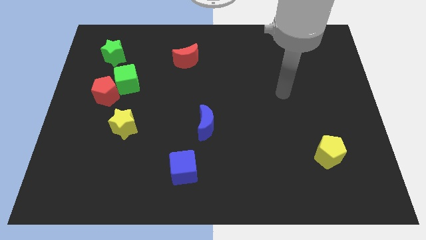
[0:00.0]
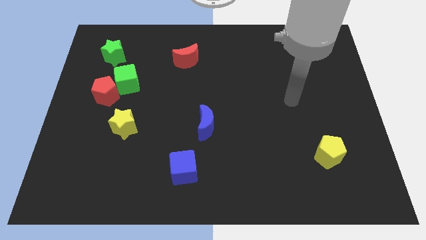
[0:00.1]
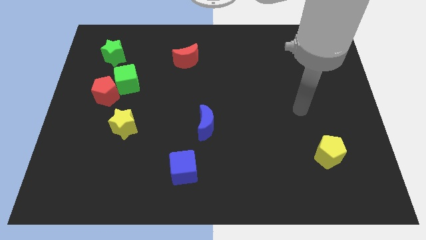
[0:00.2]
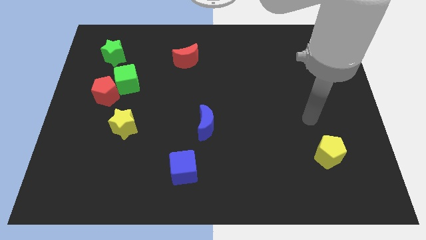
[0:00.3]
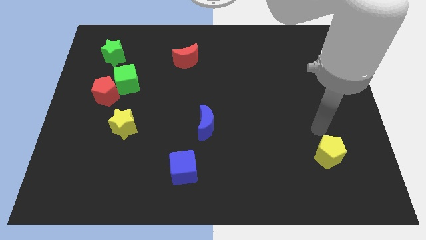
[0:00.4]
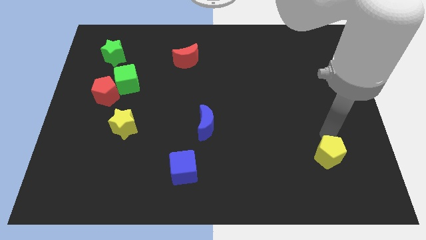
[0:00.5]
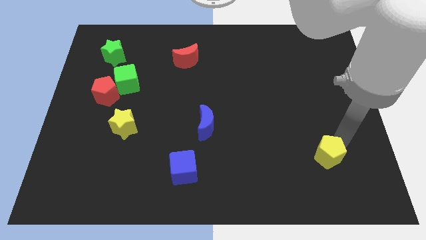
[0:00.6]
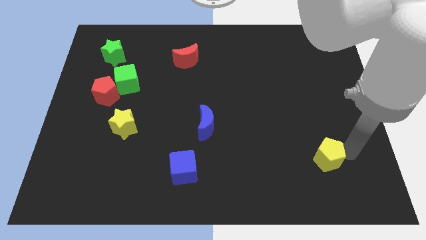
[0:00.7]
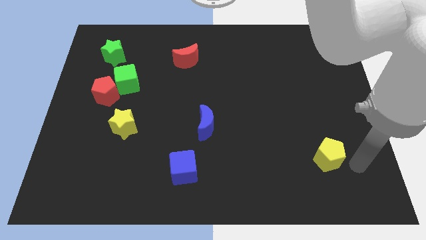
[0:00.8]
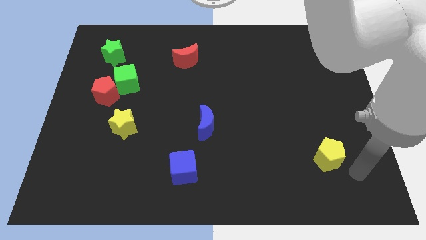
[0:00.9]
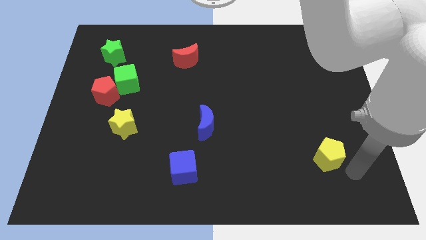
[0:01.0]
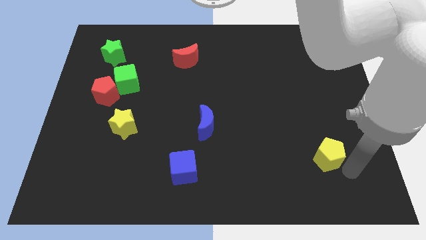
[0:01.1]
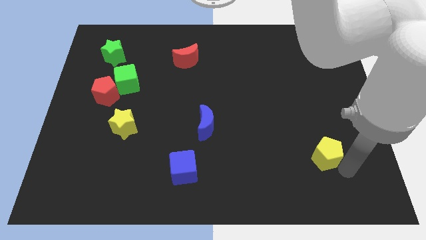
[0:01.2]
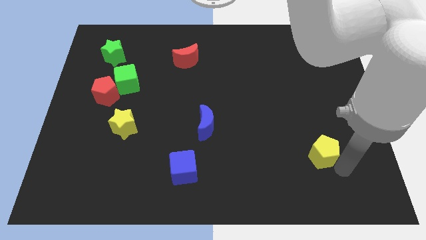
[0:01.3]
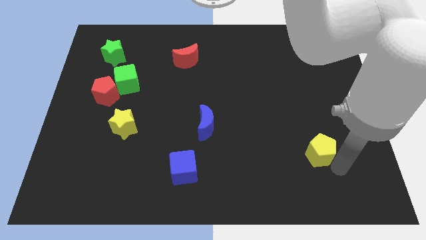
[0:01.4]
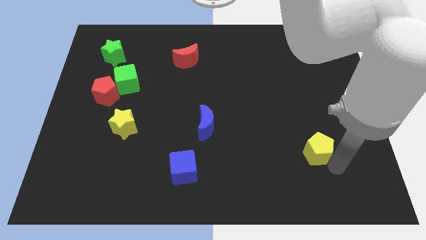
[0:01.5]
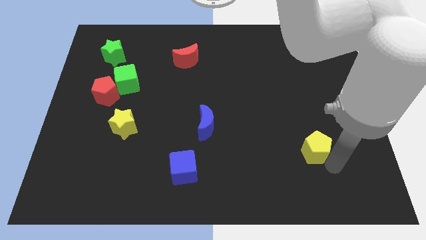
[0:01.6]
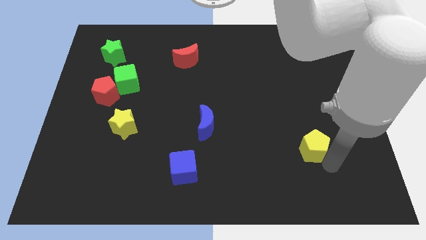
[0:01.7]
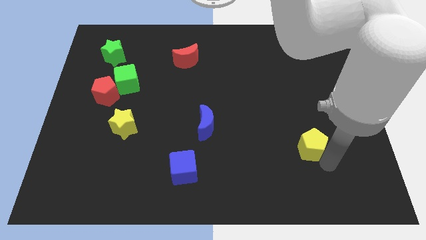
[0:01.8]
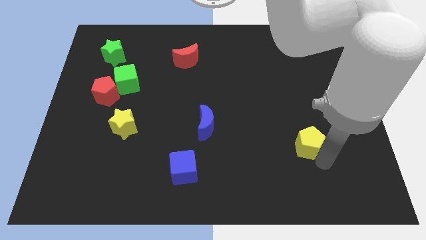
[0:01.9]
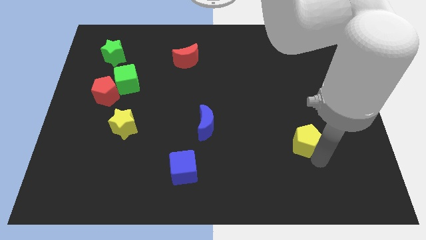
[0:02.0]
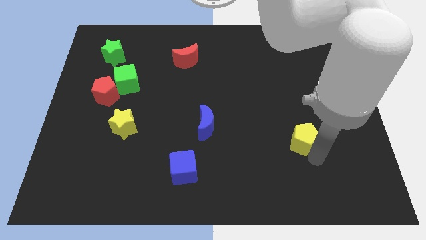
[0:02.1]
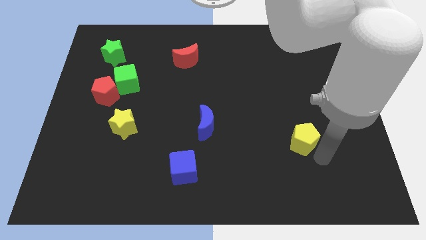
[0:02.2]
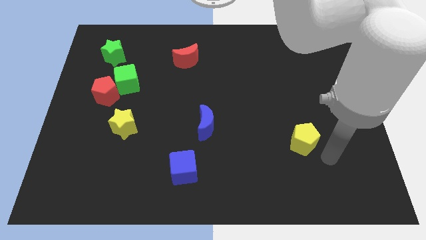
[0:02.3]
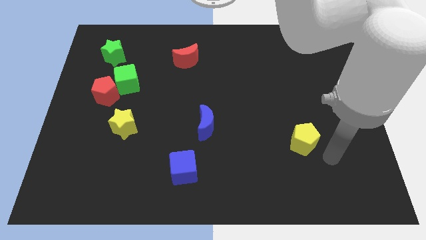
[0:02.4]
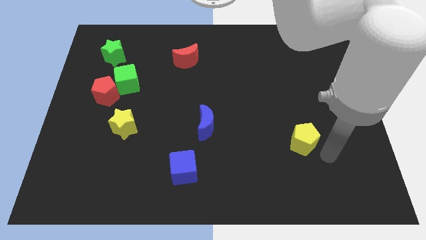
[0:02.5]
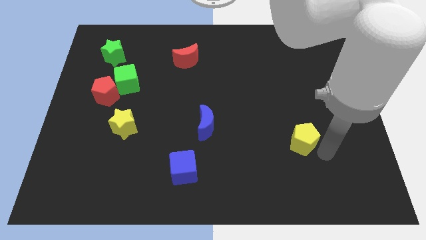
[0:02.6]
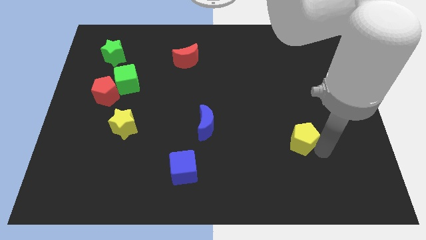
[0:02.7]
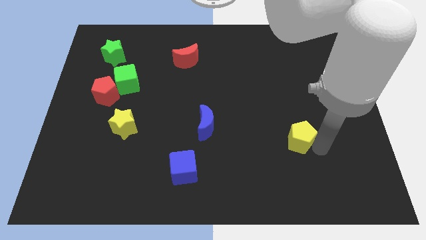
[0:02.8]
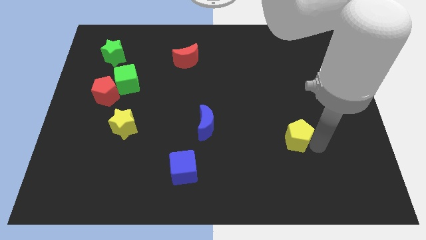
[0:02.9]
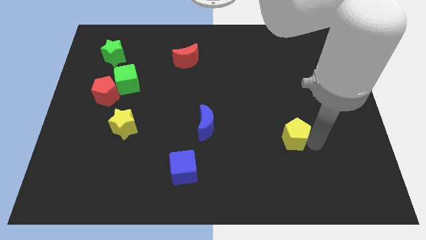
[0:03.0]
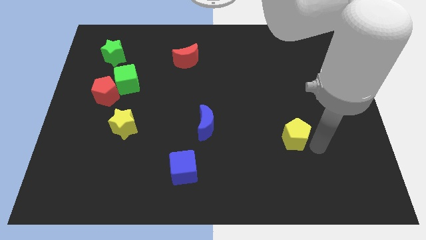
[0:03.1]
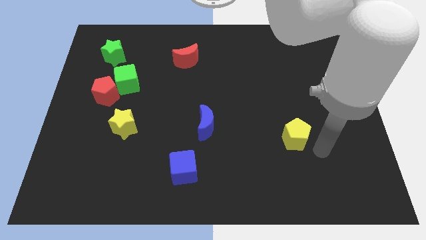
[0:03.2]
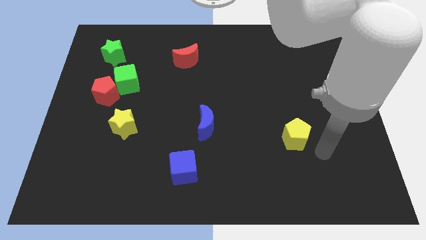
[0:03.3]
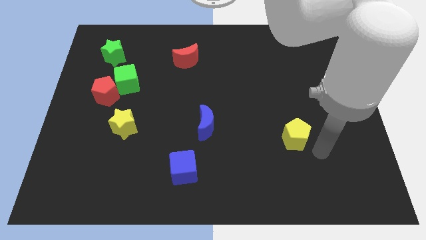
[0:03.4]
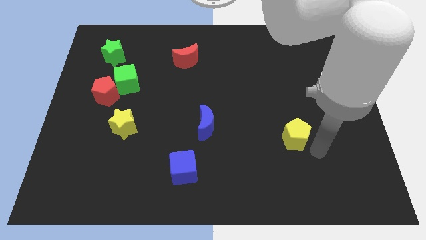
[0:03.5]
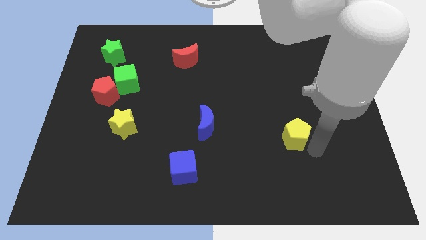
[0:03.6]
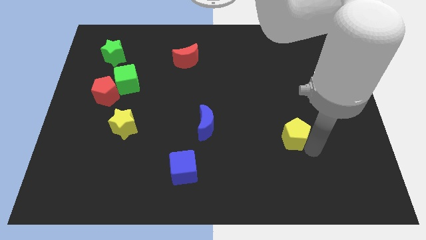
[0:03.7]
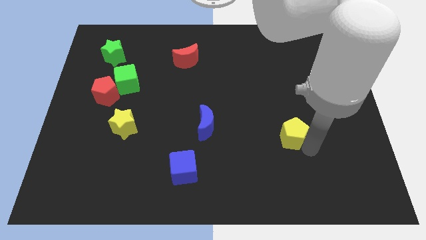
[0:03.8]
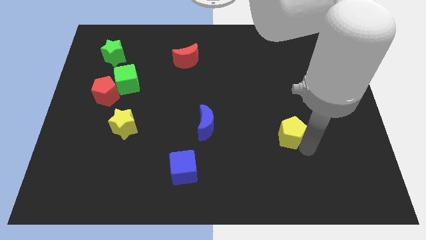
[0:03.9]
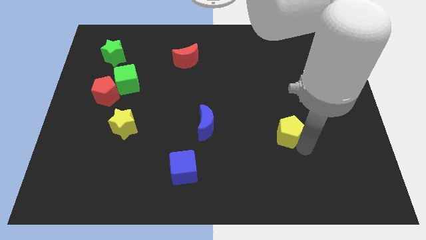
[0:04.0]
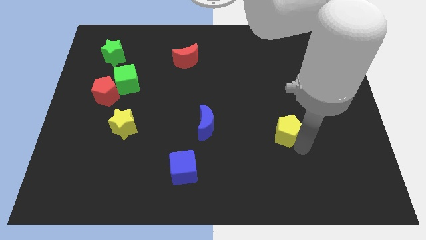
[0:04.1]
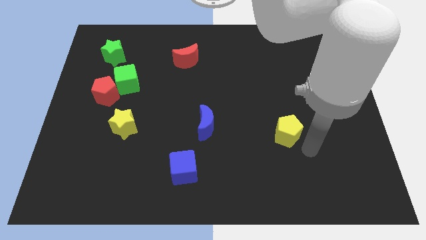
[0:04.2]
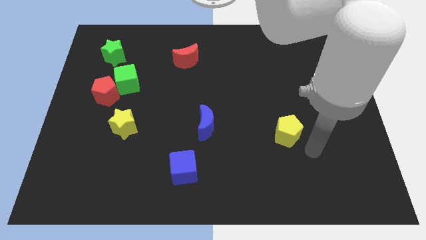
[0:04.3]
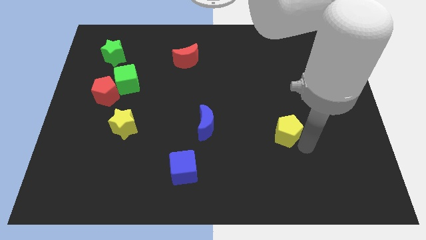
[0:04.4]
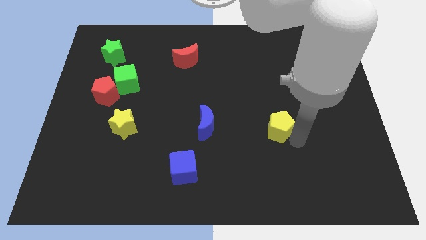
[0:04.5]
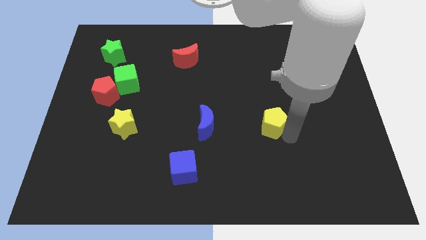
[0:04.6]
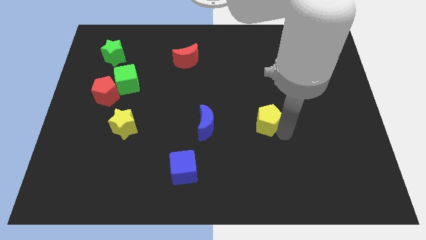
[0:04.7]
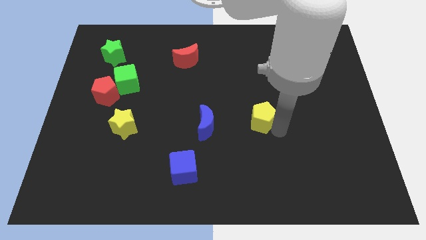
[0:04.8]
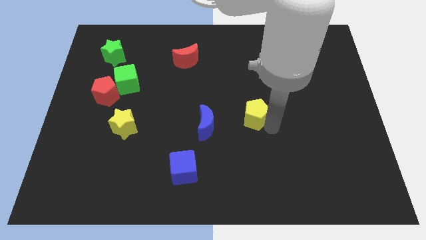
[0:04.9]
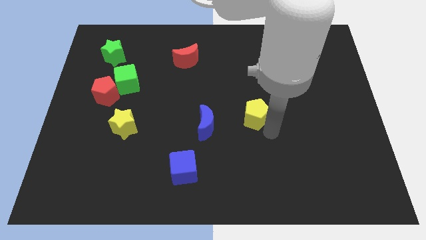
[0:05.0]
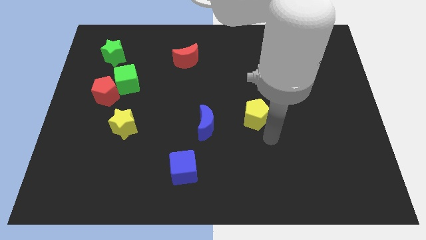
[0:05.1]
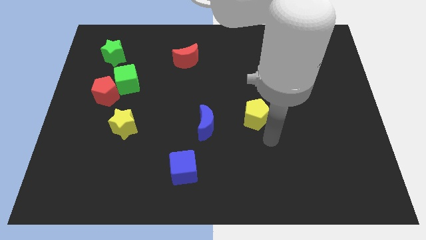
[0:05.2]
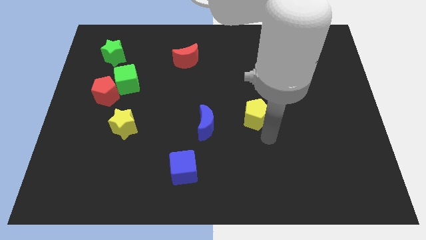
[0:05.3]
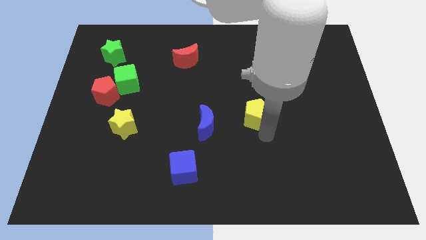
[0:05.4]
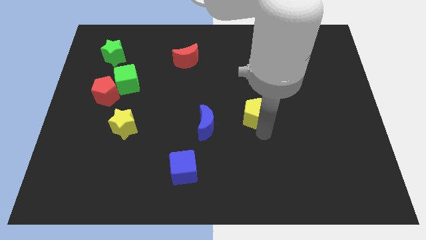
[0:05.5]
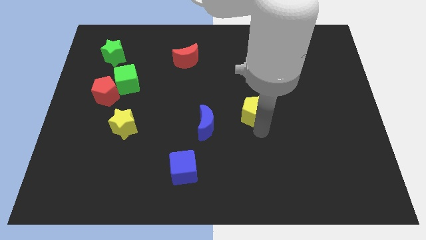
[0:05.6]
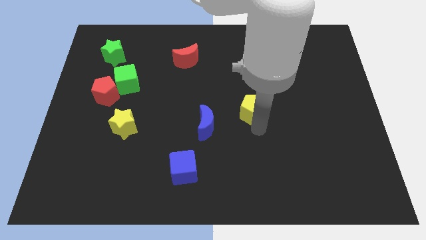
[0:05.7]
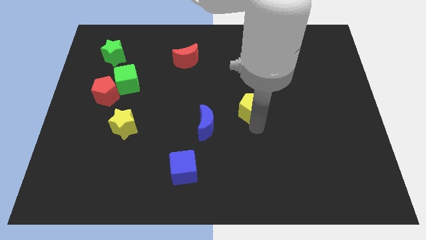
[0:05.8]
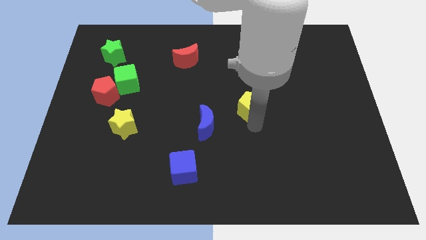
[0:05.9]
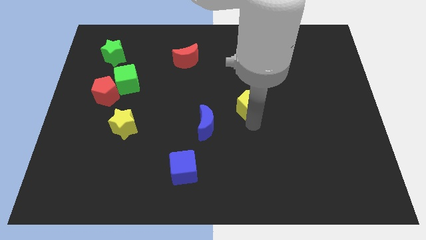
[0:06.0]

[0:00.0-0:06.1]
push the yellow pentagon upwards and to the left diagonally

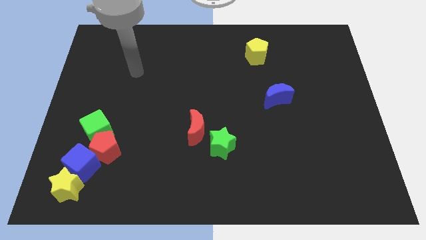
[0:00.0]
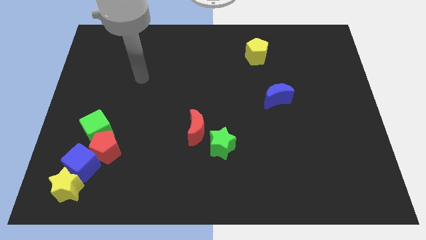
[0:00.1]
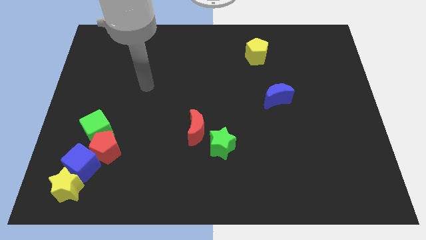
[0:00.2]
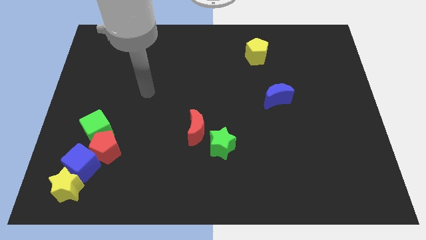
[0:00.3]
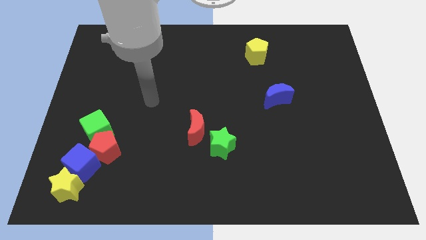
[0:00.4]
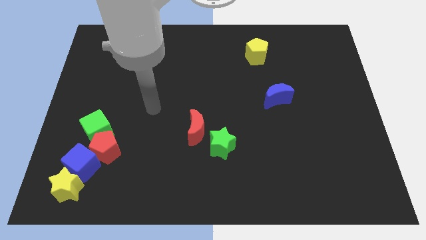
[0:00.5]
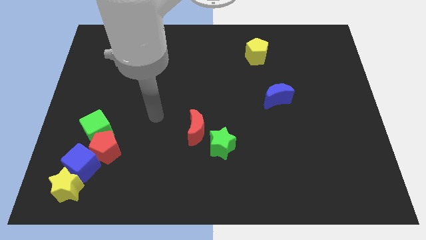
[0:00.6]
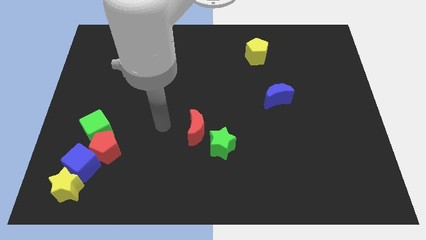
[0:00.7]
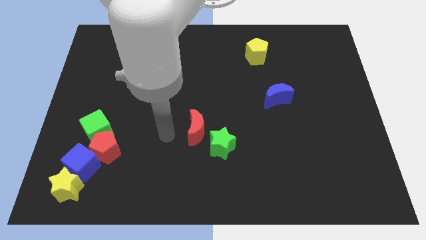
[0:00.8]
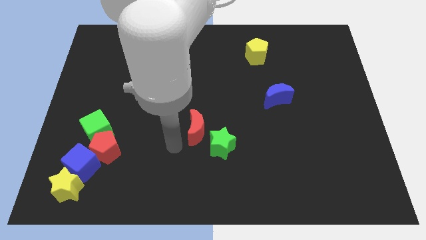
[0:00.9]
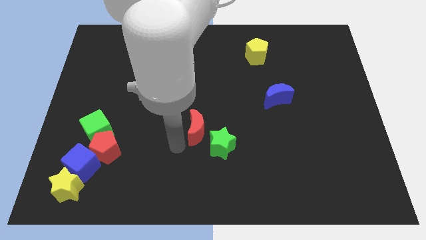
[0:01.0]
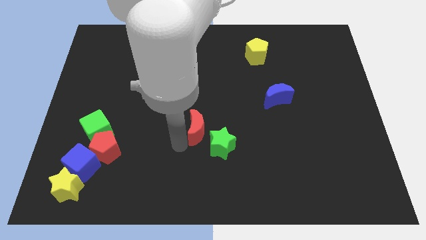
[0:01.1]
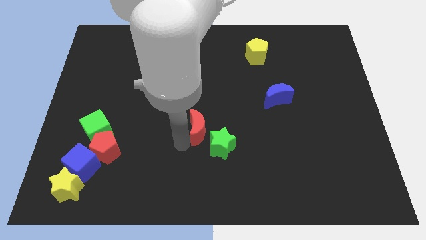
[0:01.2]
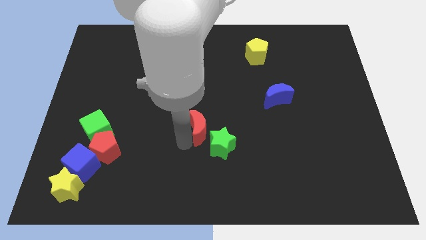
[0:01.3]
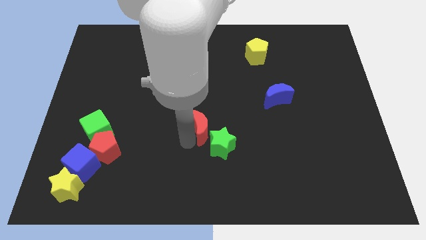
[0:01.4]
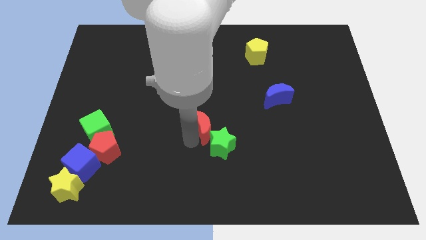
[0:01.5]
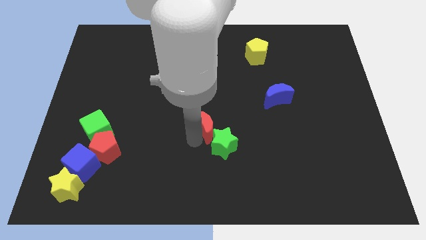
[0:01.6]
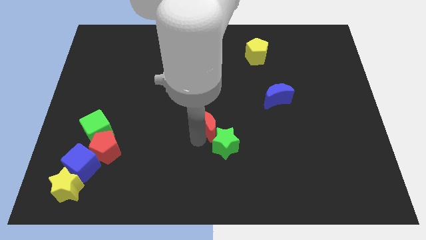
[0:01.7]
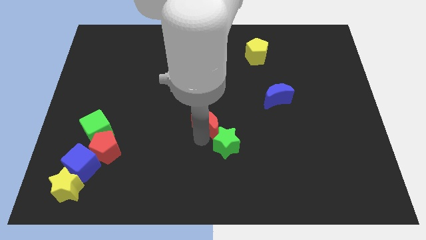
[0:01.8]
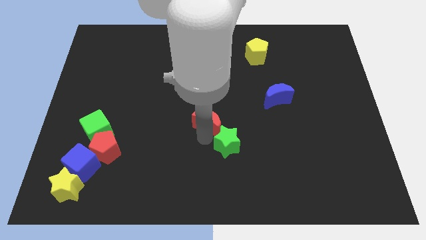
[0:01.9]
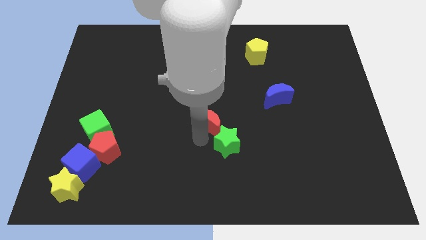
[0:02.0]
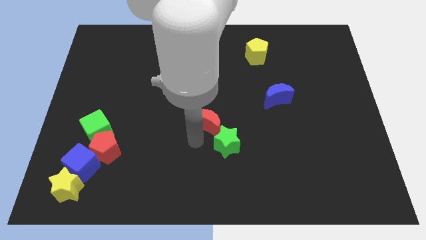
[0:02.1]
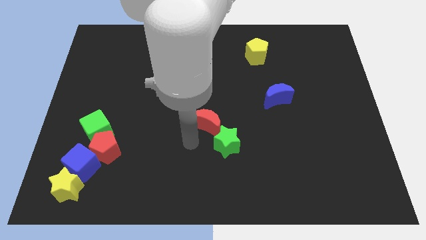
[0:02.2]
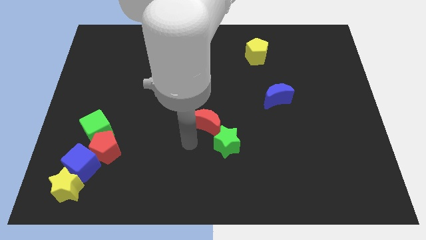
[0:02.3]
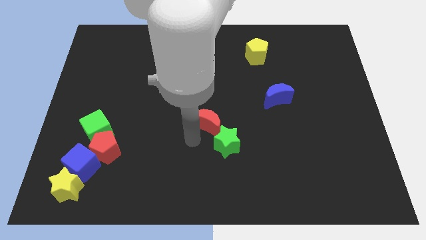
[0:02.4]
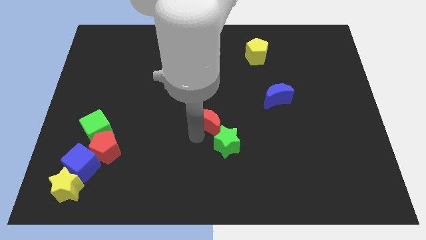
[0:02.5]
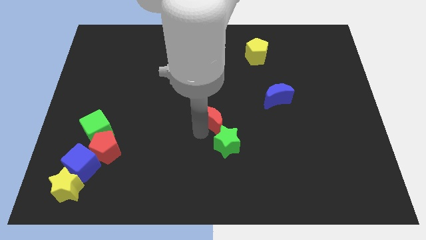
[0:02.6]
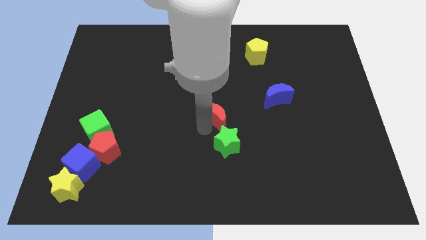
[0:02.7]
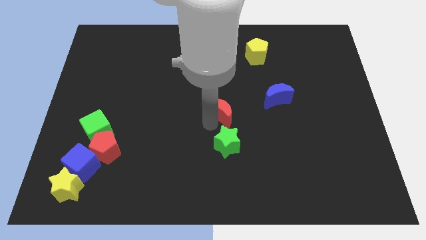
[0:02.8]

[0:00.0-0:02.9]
slightly slide the red moon up and right diagonally
